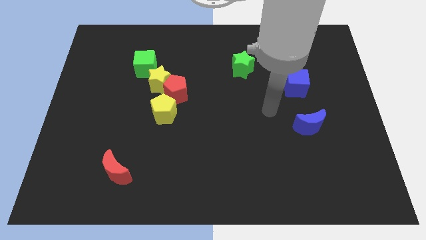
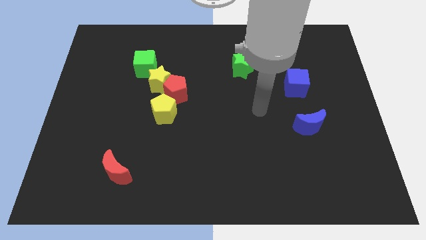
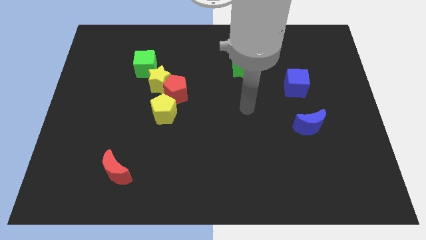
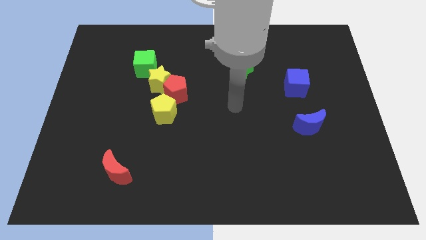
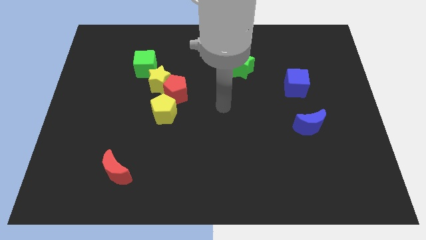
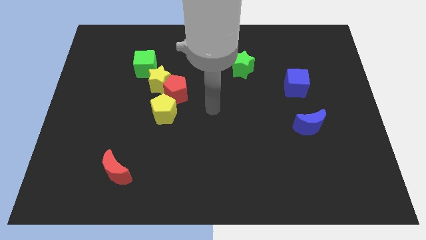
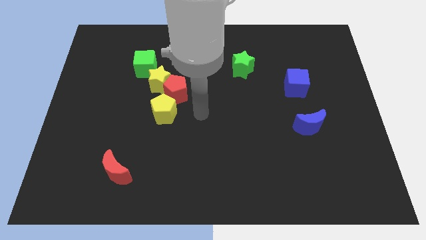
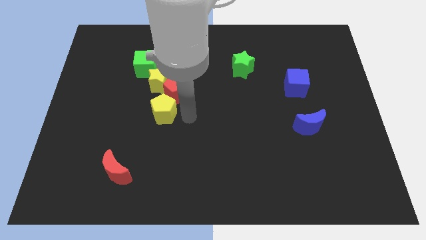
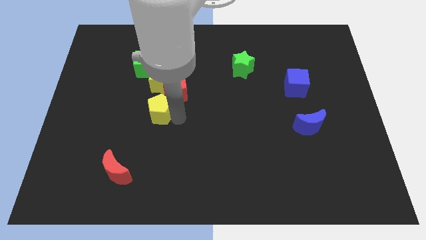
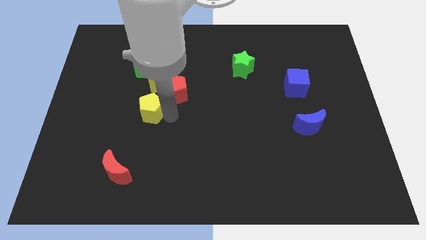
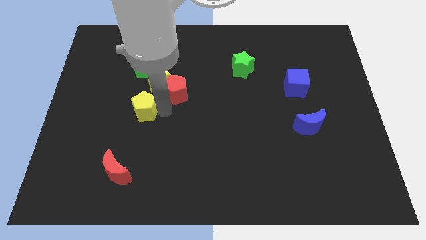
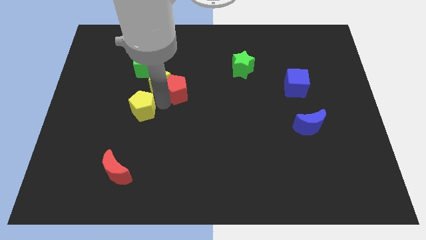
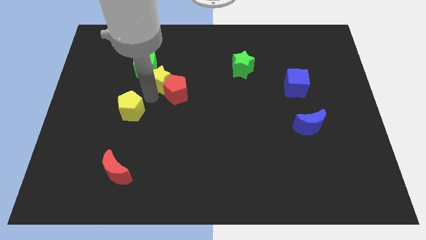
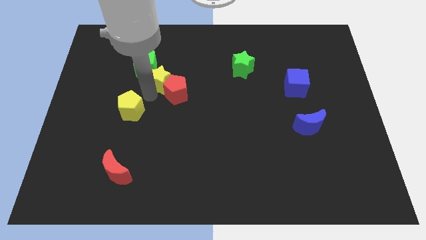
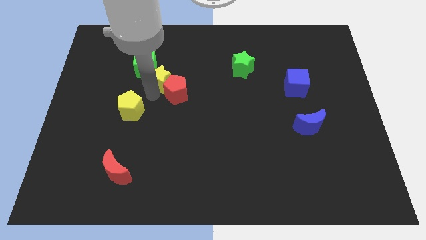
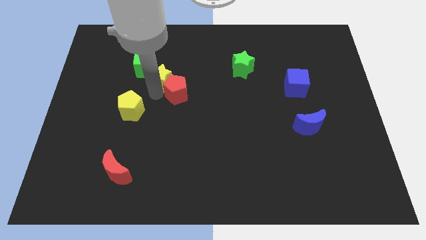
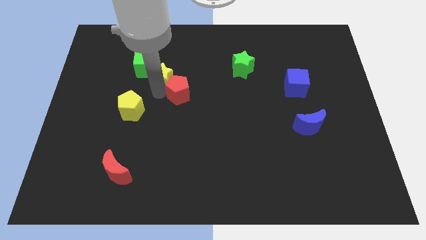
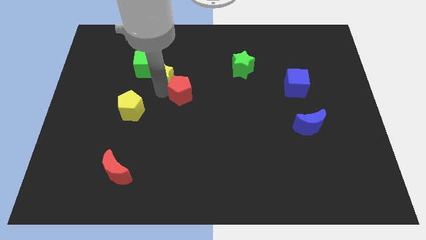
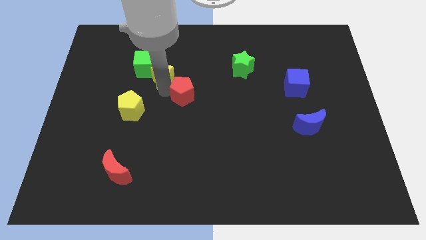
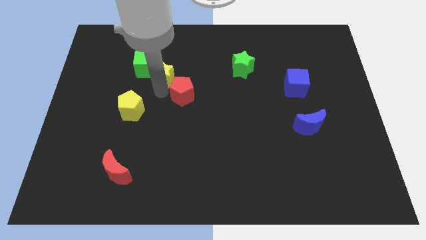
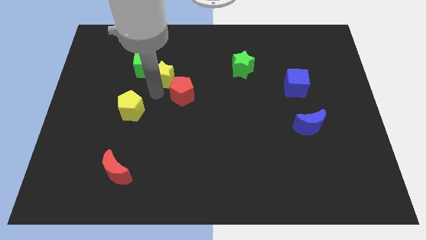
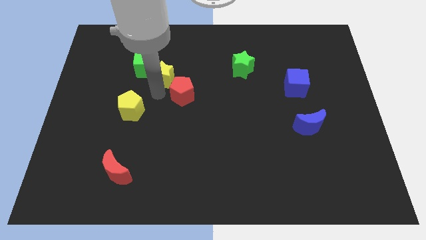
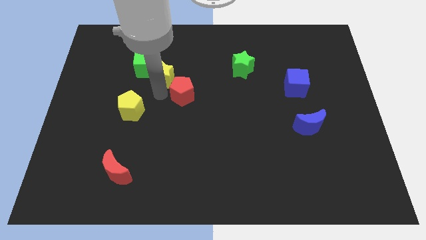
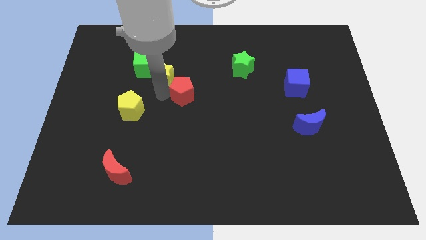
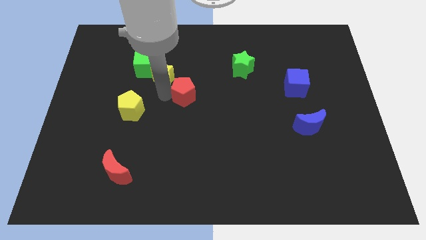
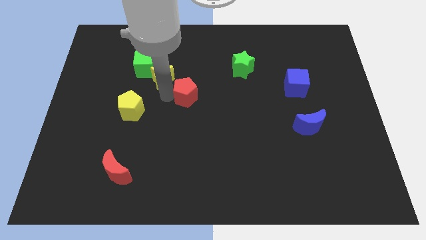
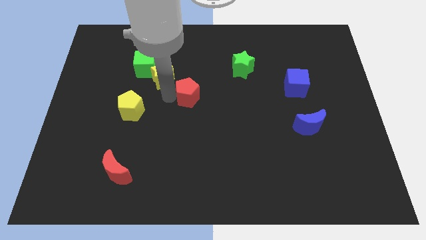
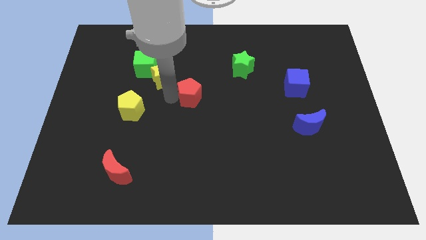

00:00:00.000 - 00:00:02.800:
move the red pentagon away from the yellow star and yellow pentagon

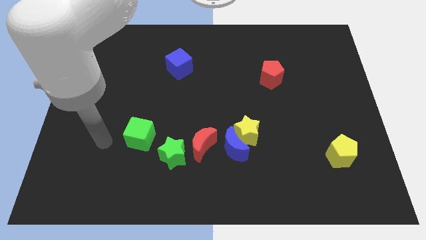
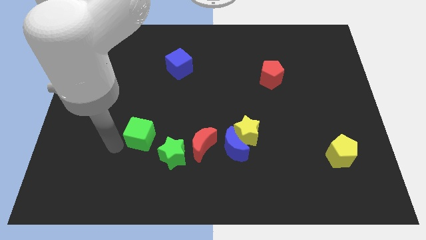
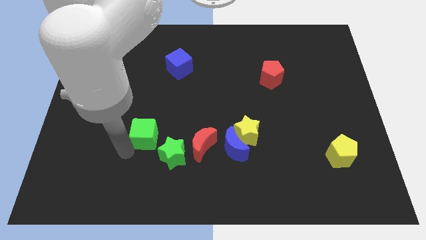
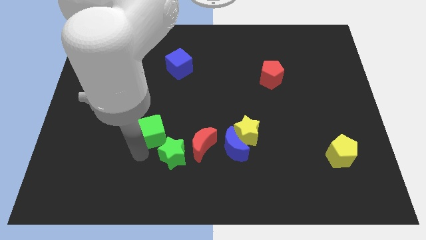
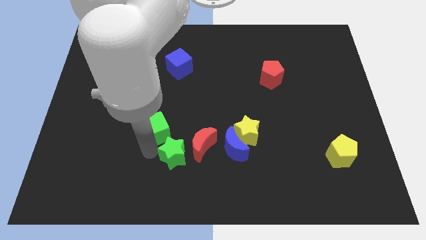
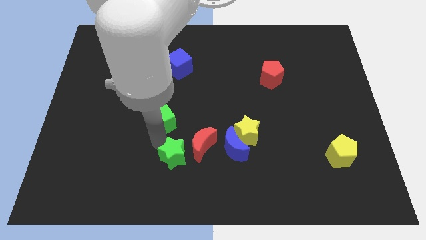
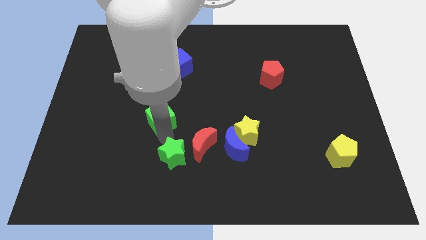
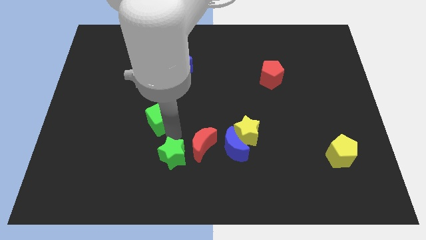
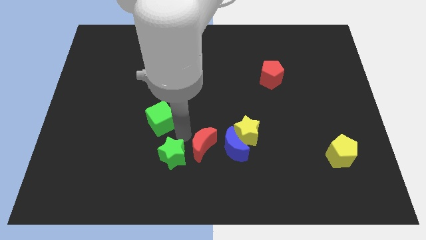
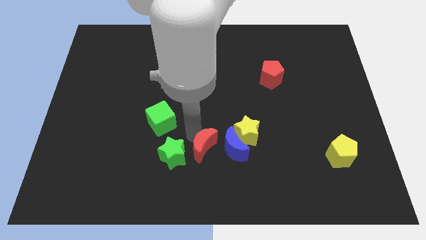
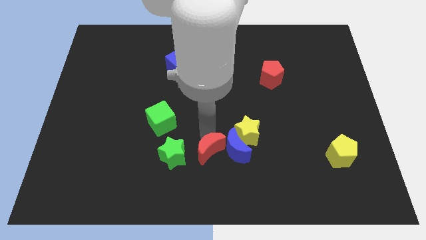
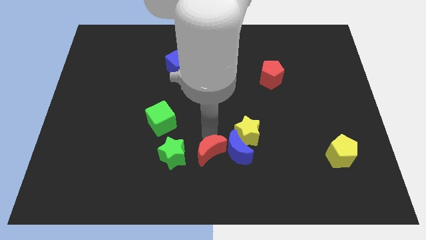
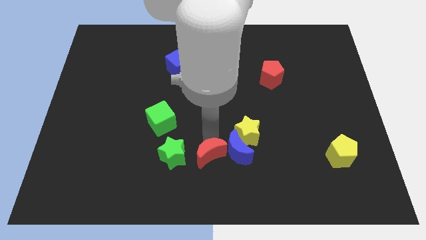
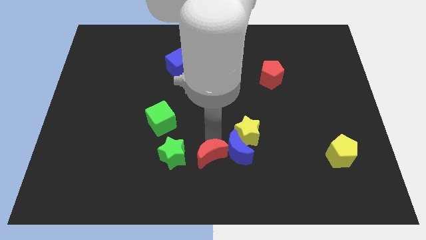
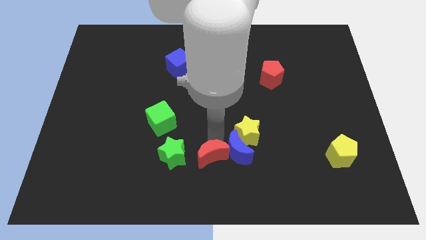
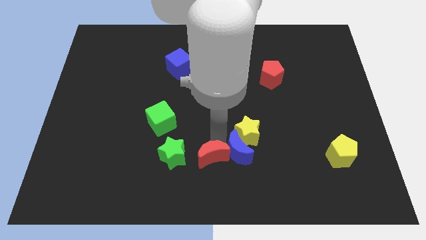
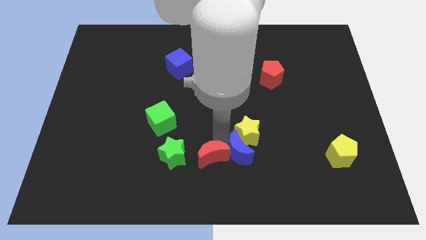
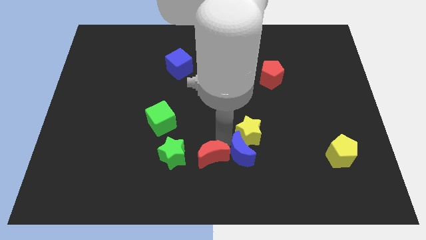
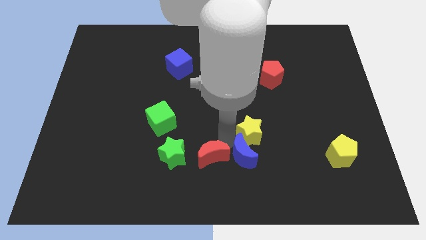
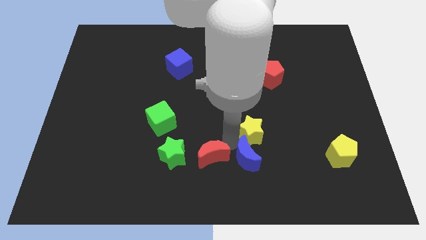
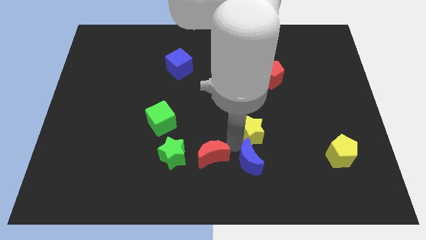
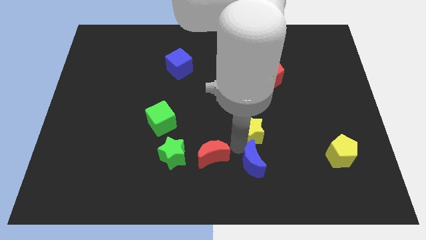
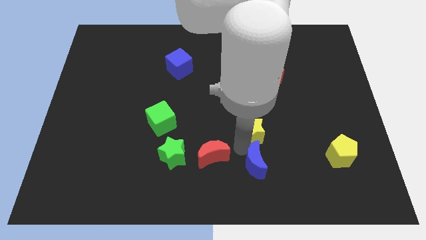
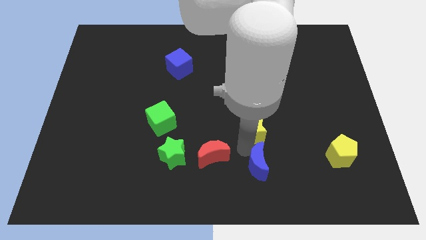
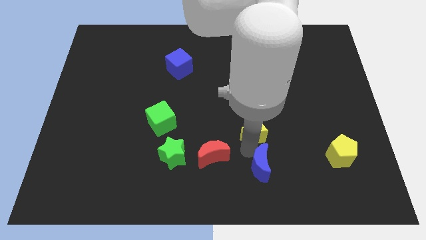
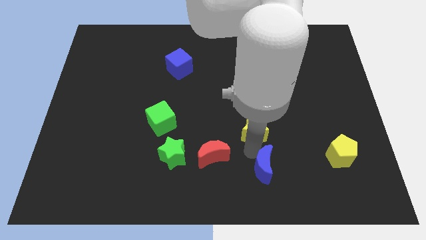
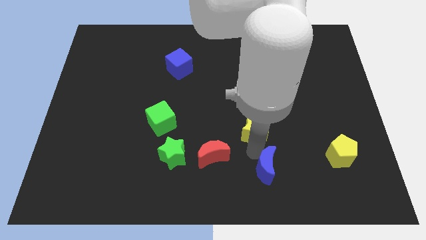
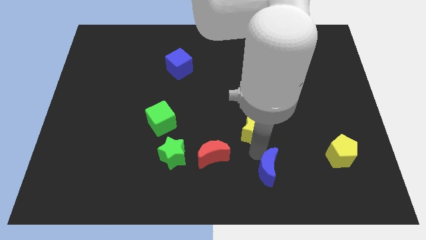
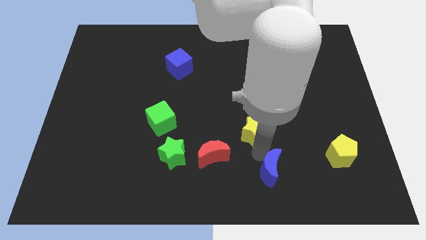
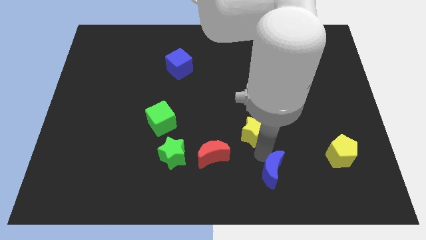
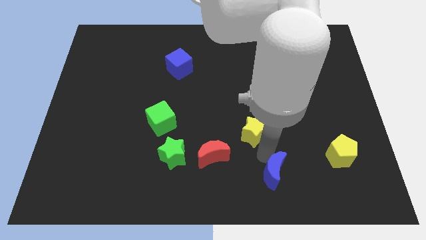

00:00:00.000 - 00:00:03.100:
pull the blue moon apart from the yellow star and red moon

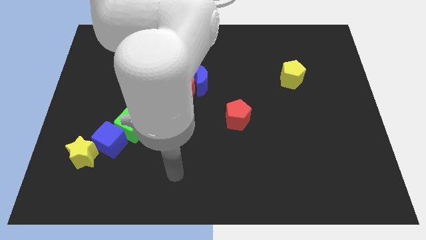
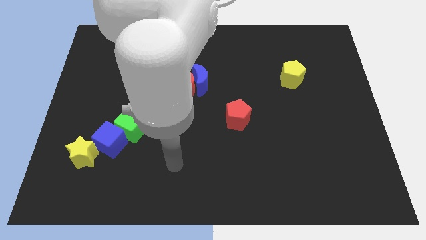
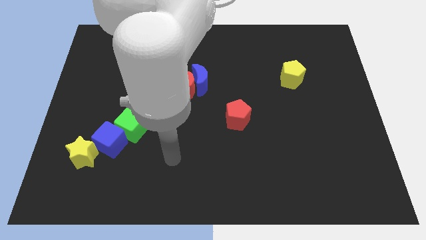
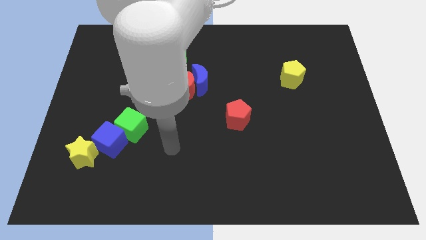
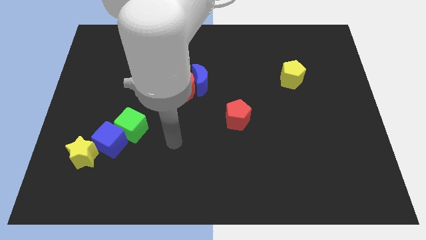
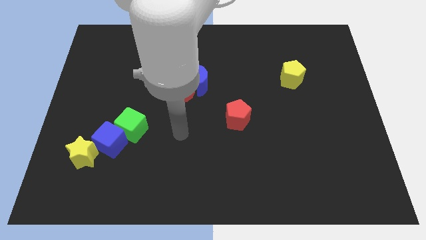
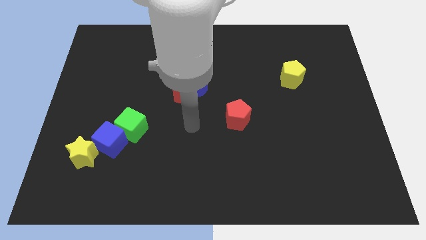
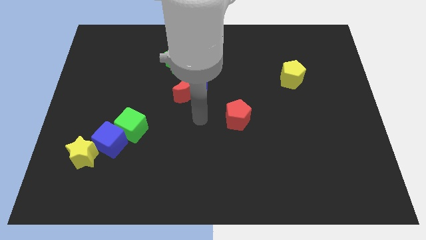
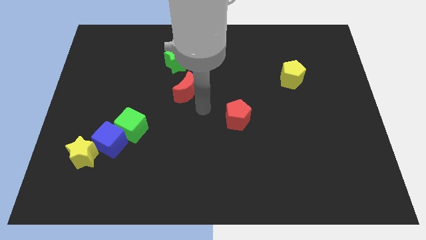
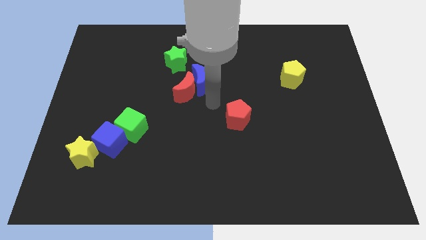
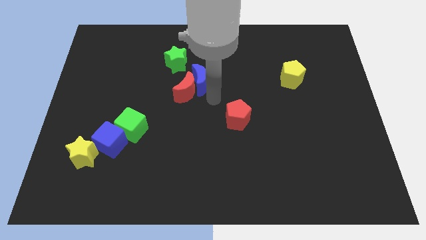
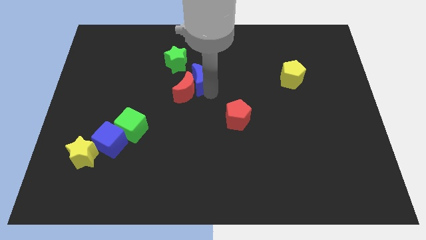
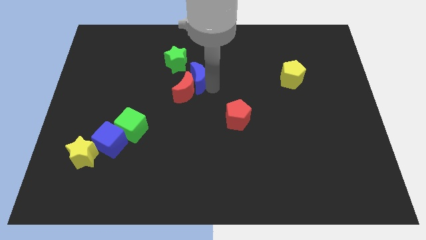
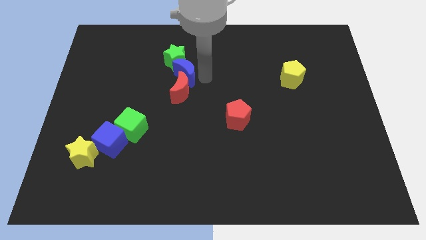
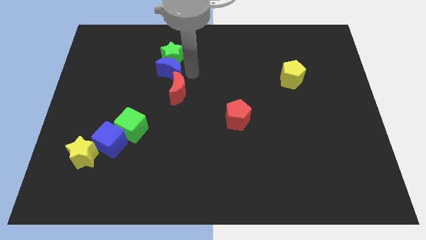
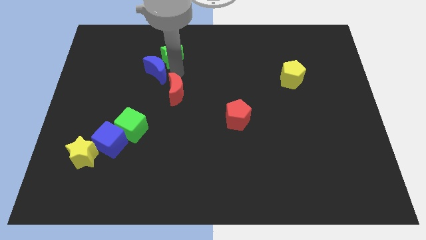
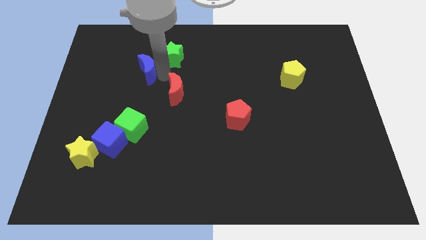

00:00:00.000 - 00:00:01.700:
separate the red moon from the blue moon

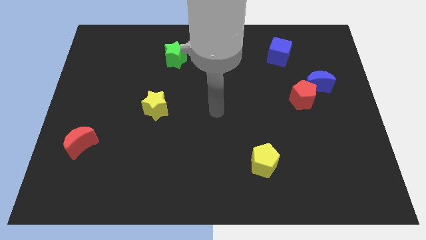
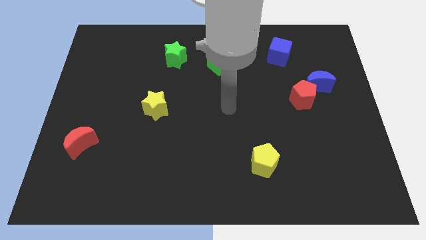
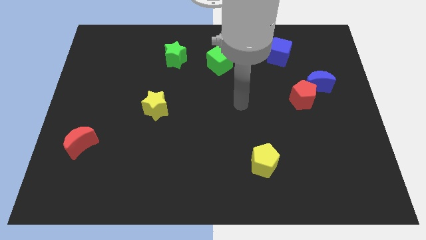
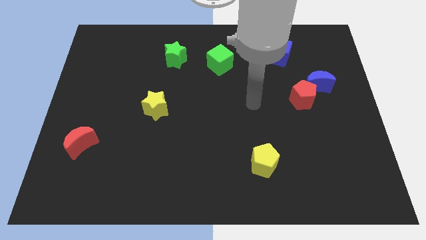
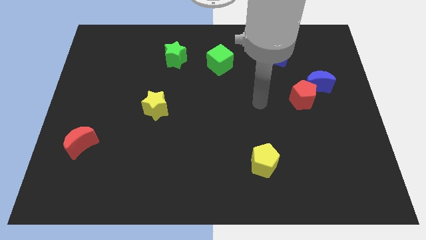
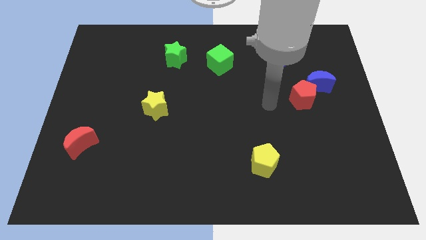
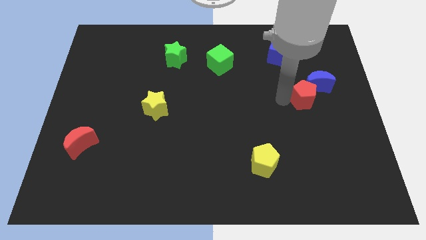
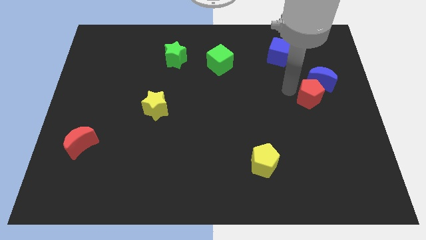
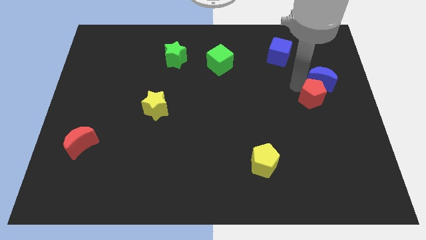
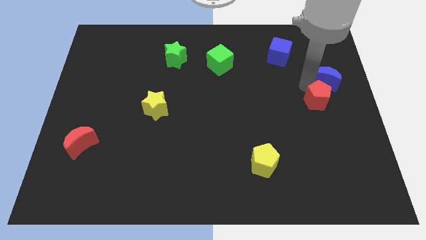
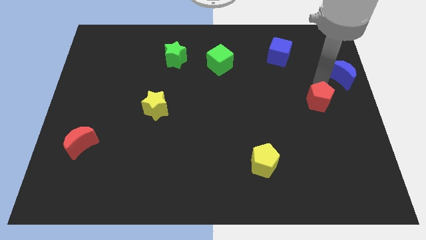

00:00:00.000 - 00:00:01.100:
pull the red pentagon apart from the blue moon

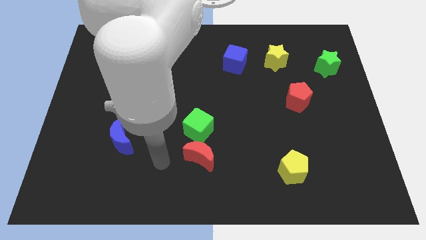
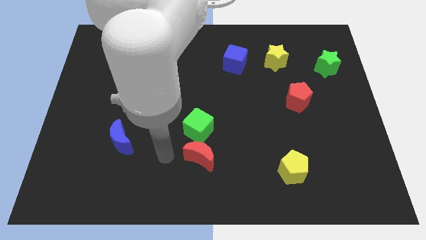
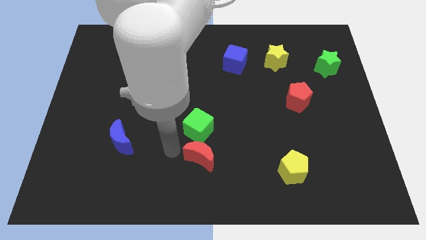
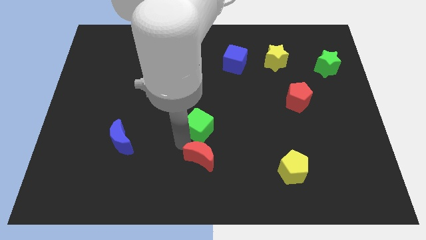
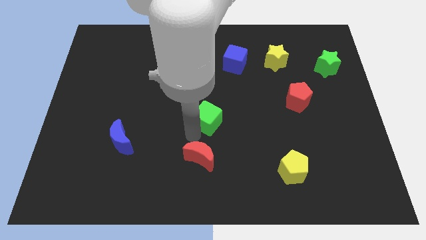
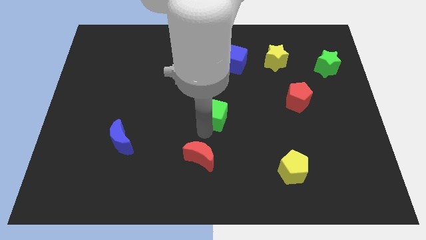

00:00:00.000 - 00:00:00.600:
separate the red moon from the green cube
